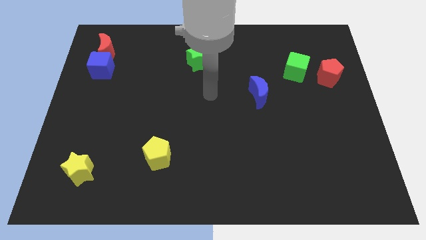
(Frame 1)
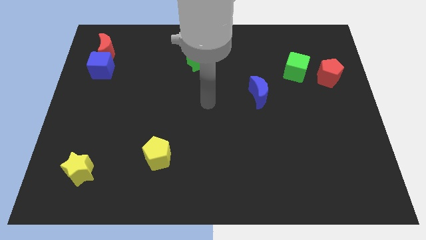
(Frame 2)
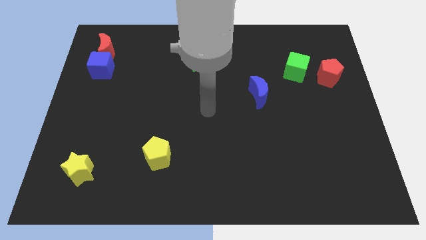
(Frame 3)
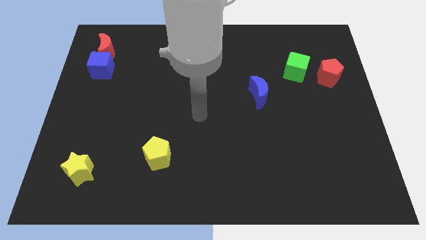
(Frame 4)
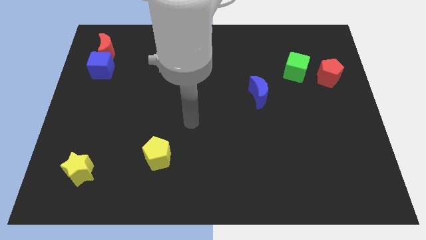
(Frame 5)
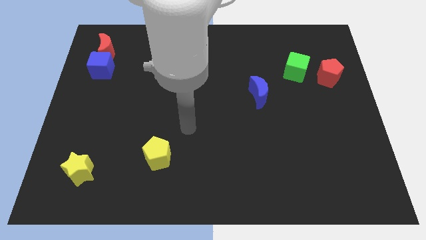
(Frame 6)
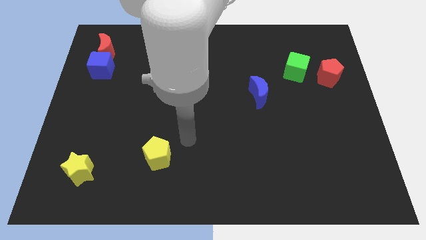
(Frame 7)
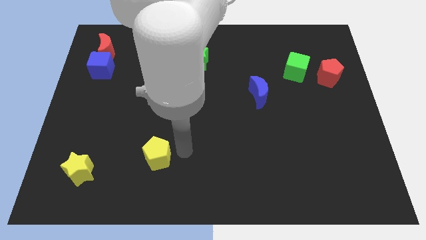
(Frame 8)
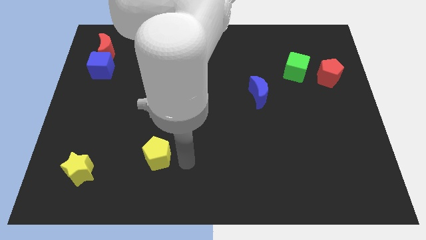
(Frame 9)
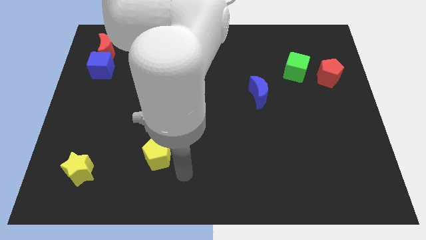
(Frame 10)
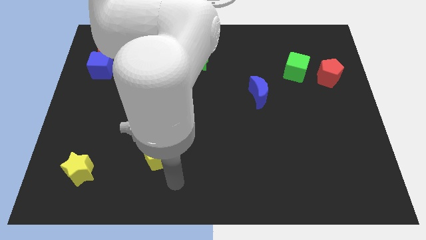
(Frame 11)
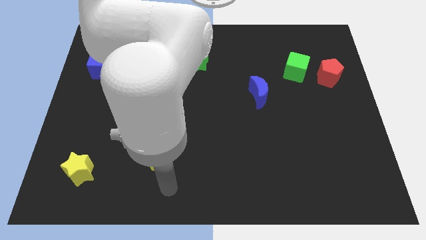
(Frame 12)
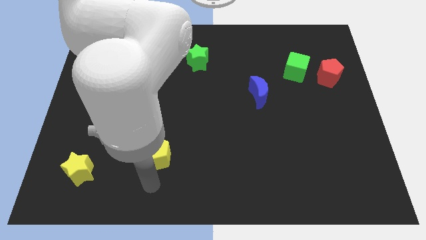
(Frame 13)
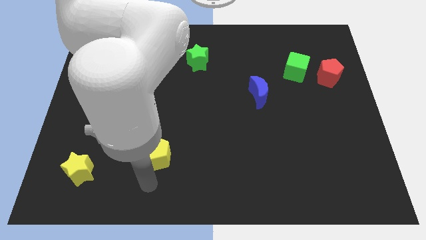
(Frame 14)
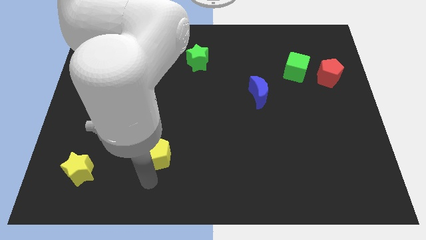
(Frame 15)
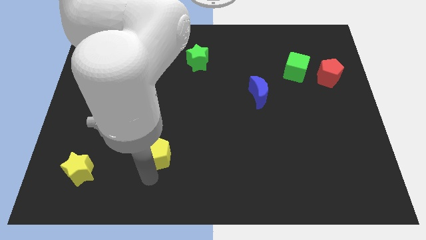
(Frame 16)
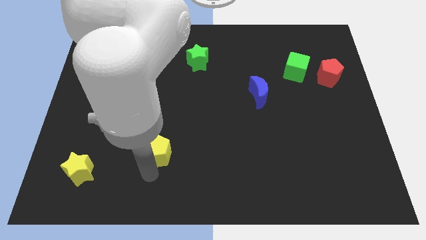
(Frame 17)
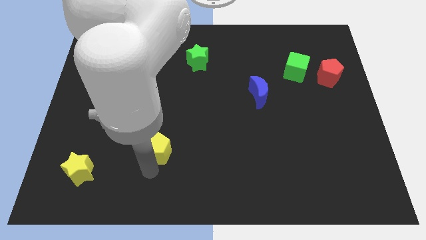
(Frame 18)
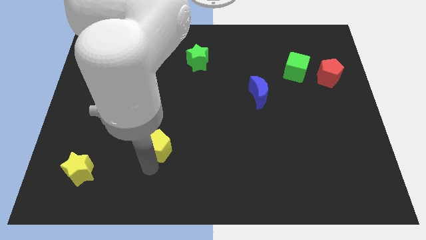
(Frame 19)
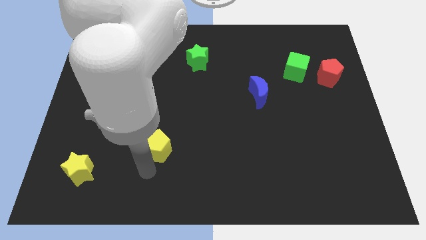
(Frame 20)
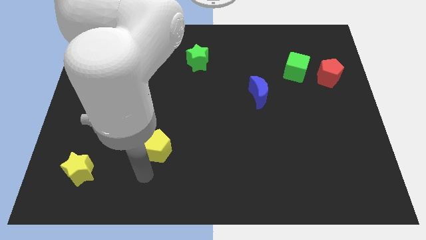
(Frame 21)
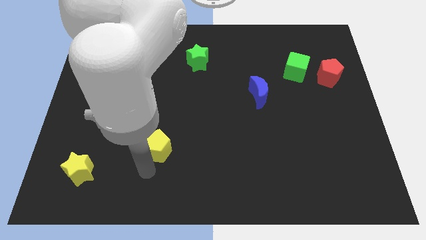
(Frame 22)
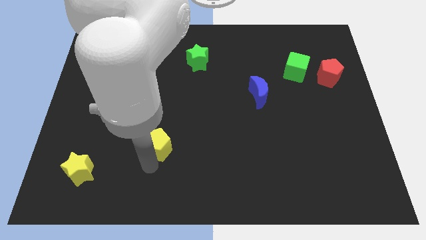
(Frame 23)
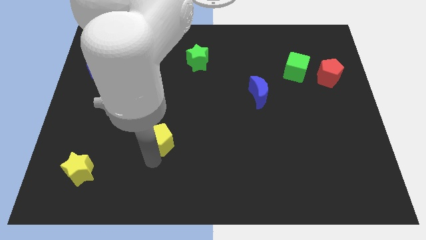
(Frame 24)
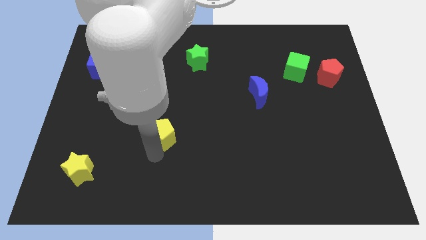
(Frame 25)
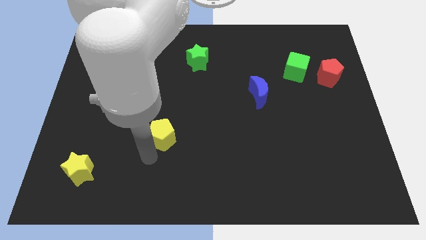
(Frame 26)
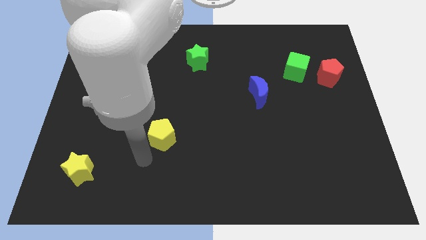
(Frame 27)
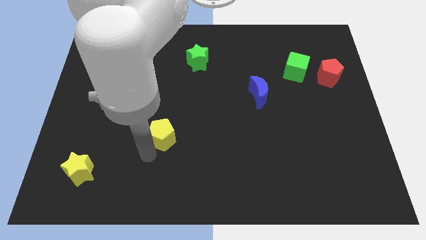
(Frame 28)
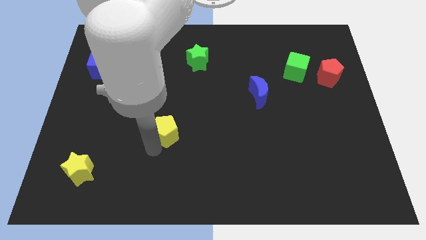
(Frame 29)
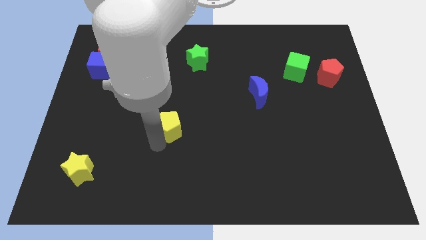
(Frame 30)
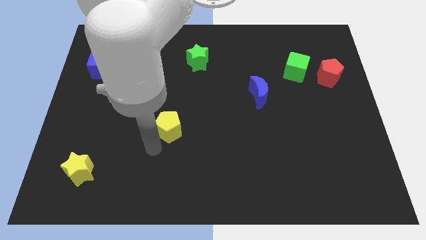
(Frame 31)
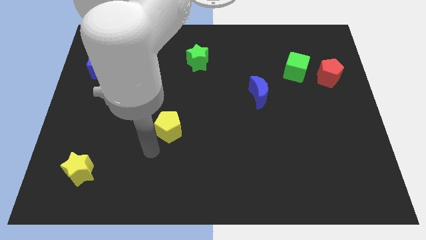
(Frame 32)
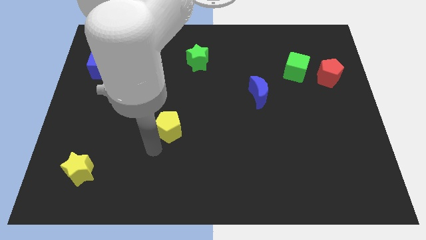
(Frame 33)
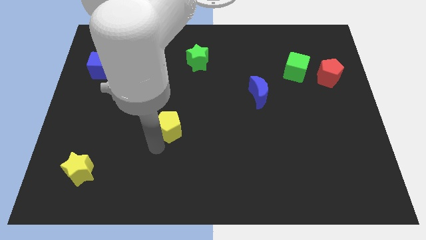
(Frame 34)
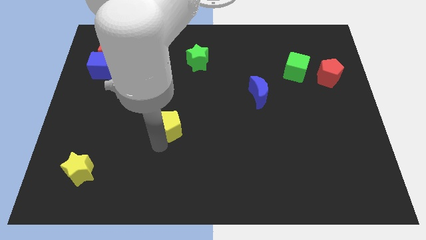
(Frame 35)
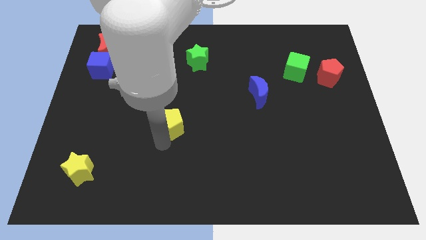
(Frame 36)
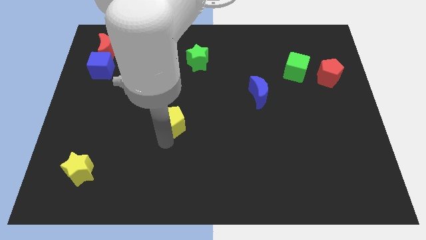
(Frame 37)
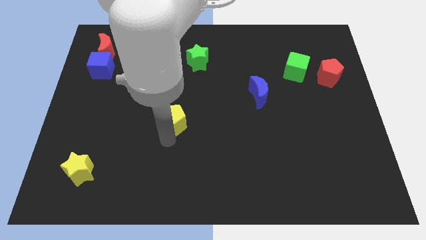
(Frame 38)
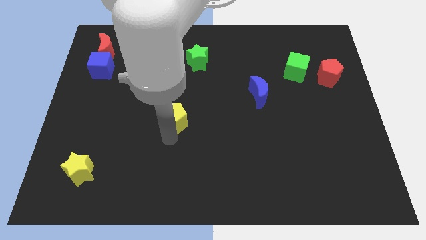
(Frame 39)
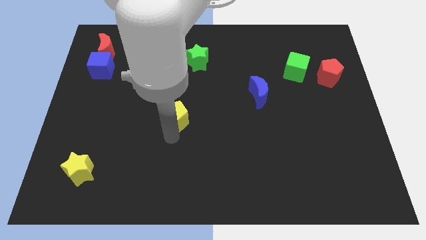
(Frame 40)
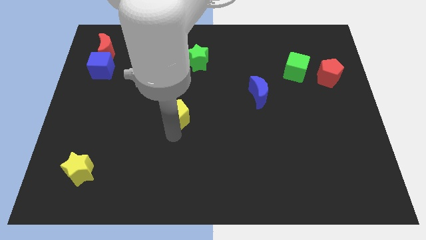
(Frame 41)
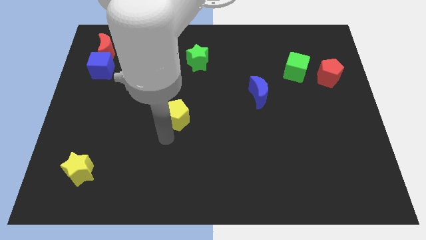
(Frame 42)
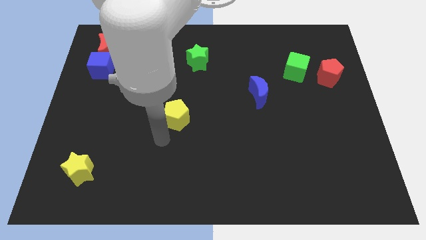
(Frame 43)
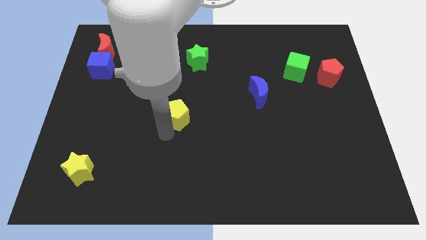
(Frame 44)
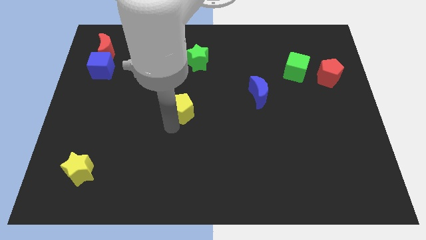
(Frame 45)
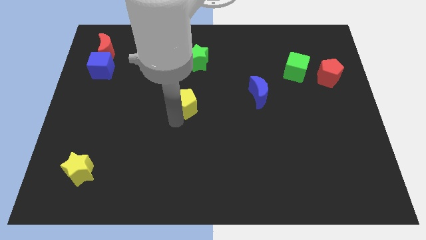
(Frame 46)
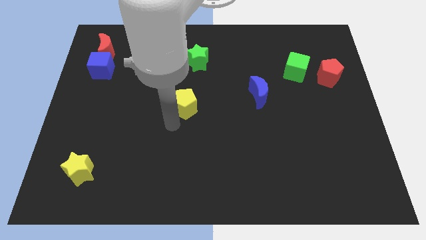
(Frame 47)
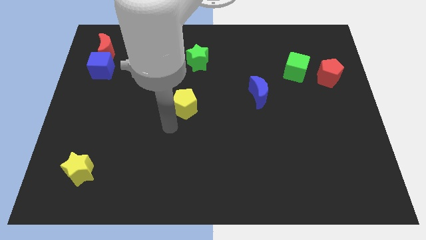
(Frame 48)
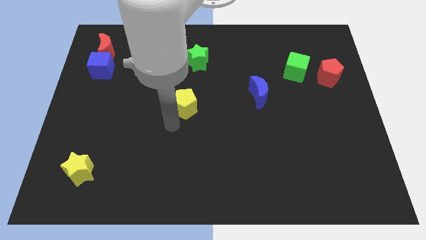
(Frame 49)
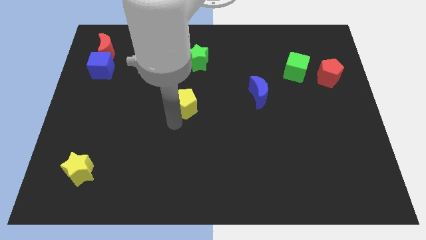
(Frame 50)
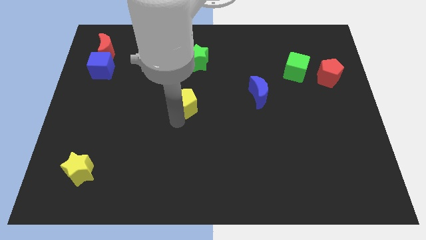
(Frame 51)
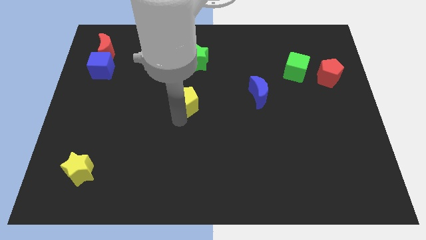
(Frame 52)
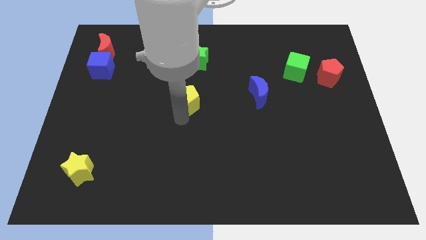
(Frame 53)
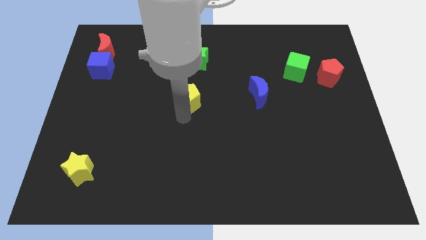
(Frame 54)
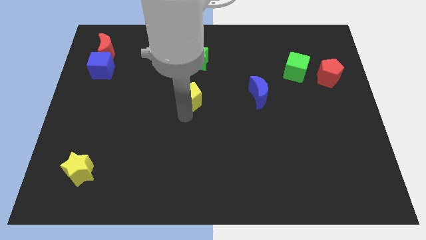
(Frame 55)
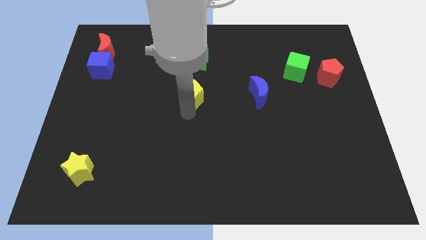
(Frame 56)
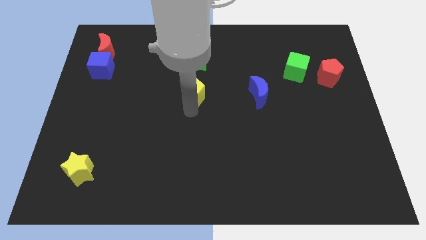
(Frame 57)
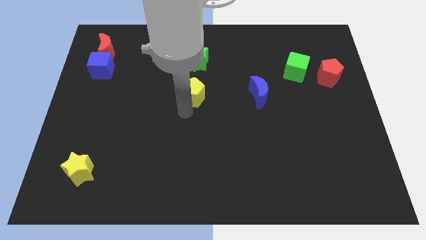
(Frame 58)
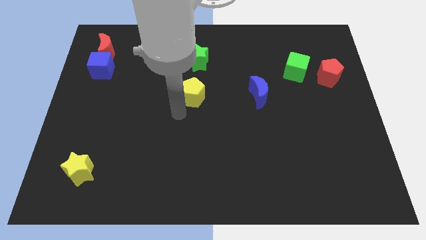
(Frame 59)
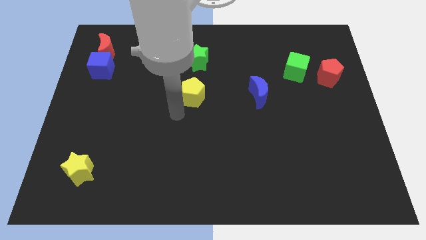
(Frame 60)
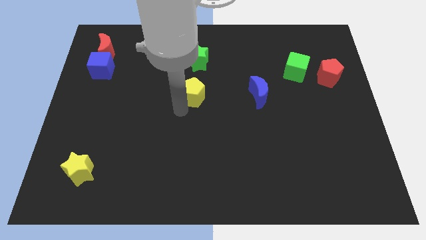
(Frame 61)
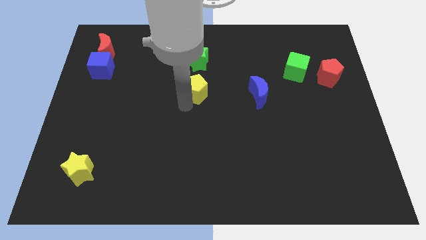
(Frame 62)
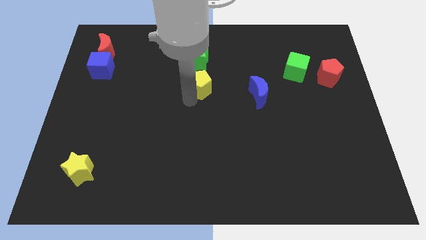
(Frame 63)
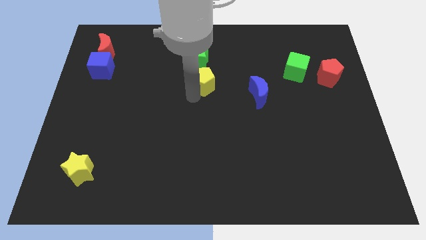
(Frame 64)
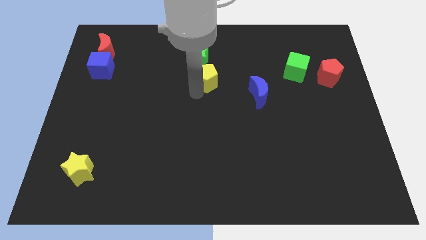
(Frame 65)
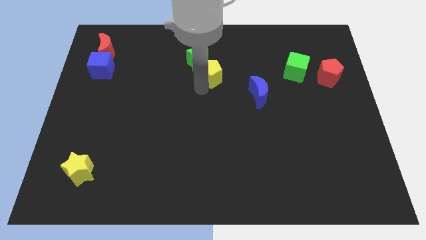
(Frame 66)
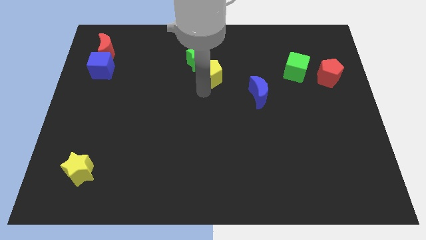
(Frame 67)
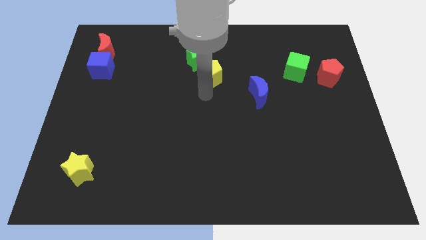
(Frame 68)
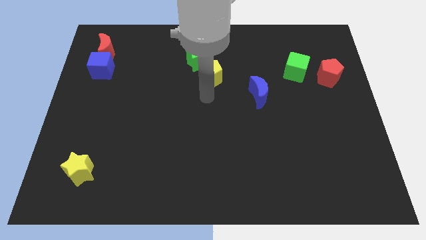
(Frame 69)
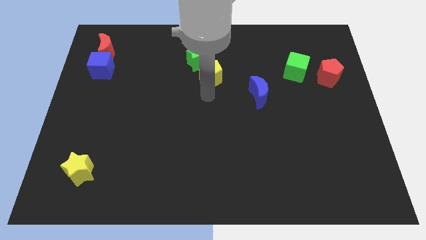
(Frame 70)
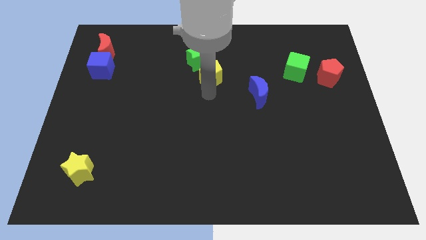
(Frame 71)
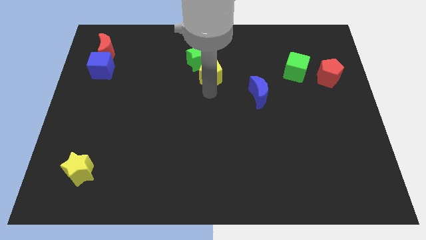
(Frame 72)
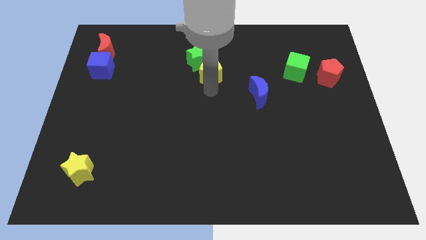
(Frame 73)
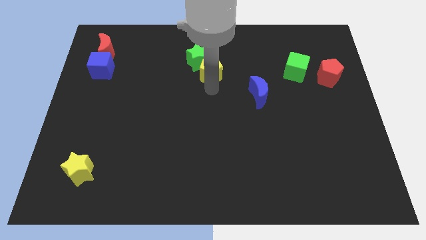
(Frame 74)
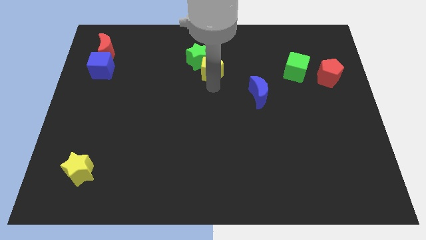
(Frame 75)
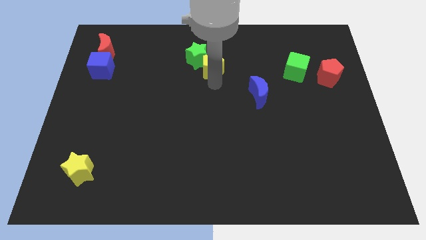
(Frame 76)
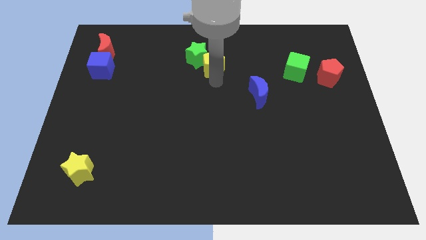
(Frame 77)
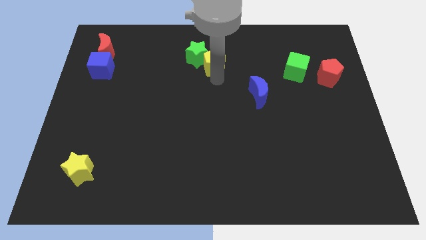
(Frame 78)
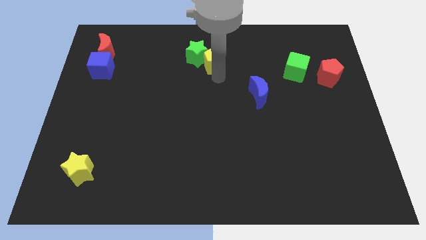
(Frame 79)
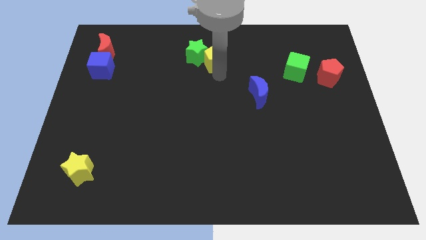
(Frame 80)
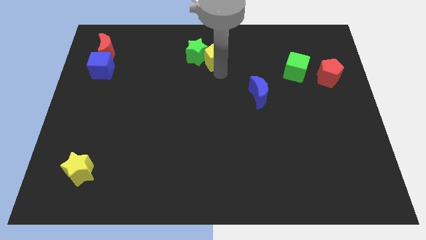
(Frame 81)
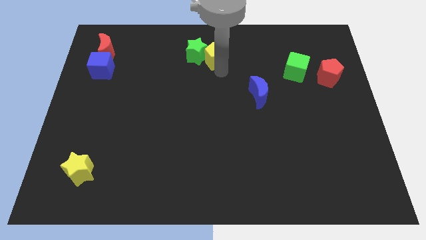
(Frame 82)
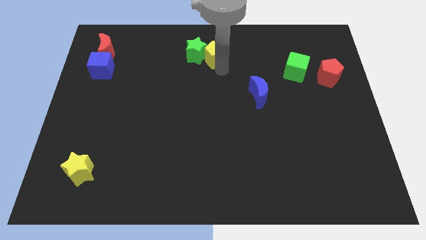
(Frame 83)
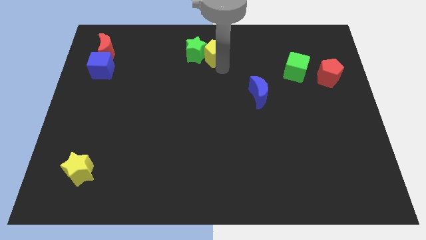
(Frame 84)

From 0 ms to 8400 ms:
slide the yellow pentagon to the top
